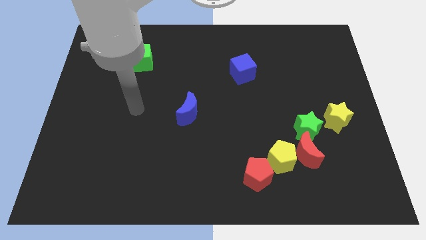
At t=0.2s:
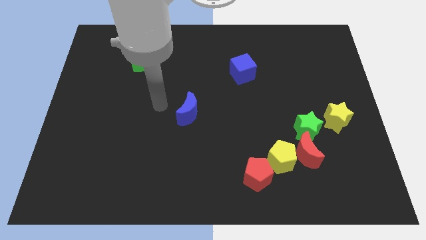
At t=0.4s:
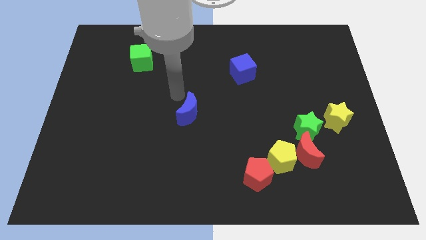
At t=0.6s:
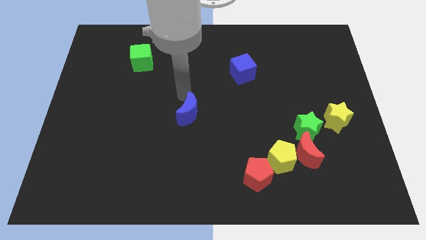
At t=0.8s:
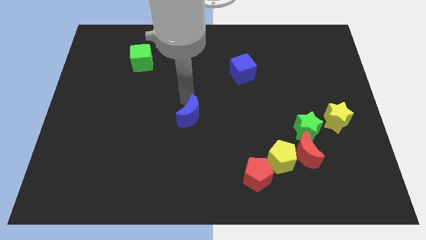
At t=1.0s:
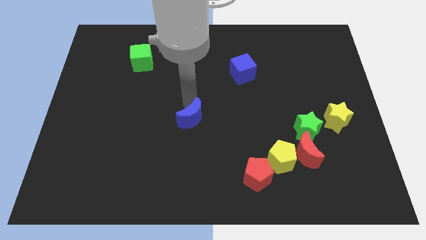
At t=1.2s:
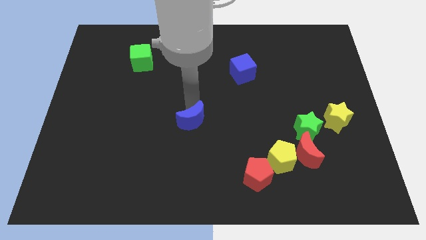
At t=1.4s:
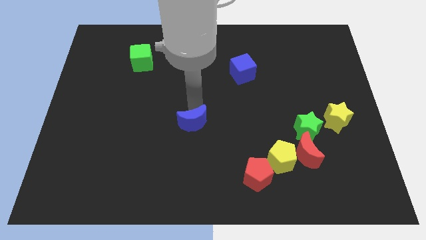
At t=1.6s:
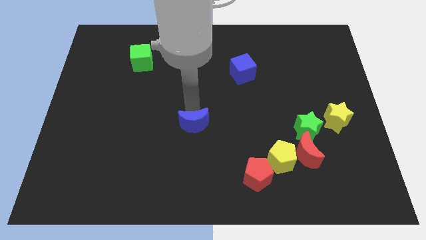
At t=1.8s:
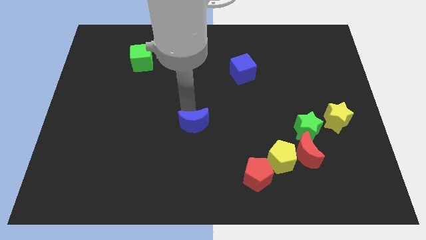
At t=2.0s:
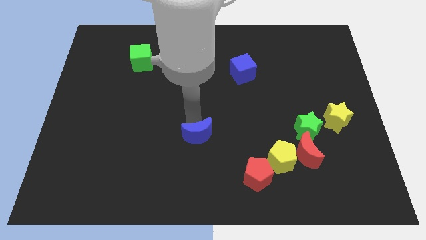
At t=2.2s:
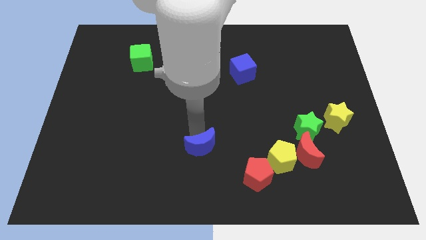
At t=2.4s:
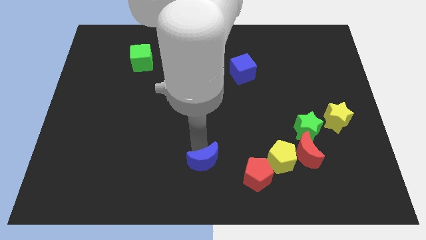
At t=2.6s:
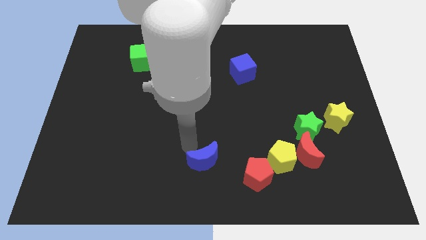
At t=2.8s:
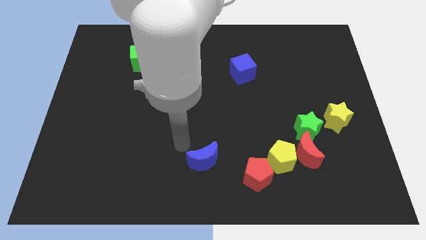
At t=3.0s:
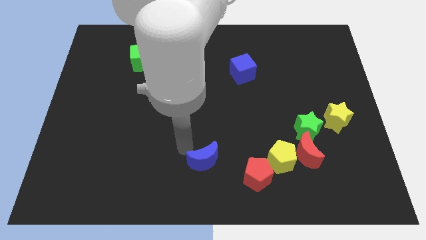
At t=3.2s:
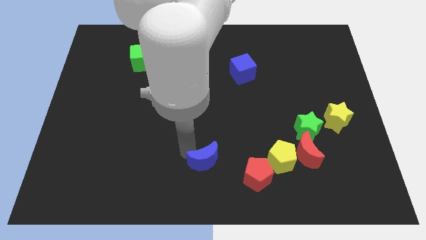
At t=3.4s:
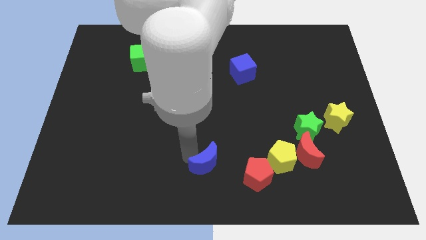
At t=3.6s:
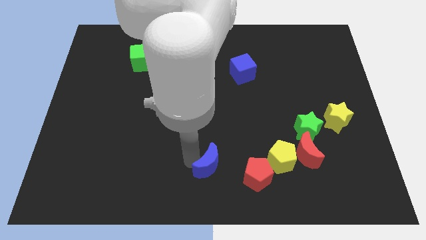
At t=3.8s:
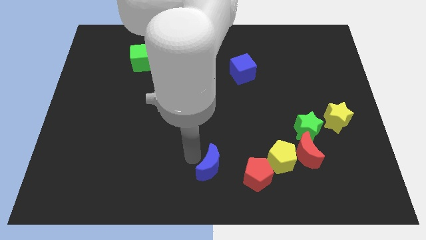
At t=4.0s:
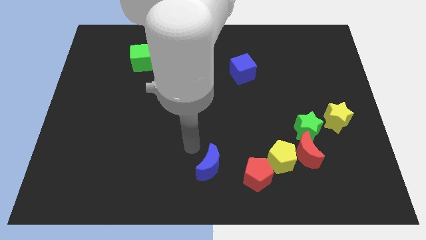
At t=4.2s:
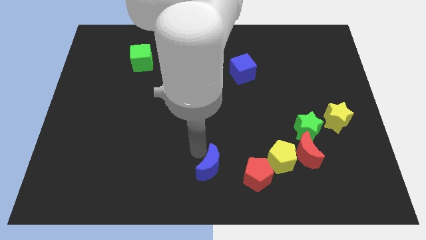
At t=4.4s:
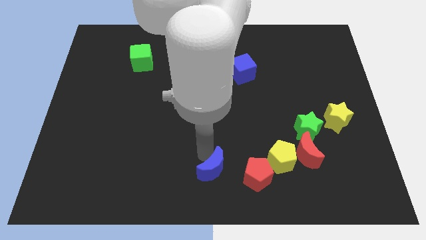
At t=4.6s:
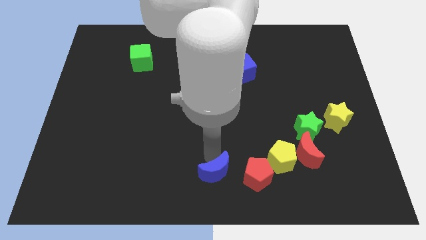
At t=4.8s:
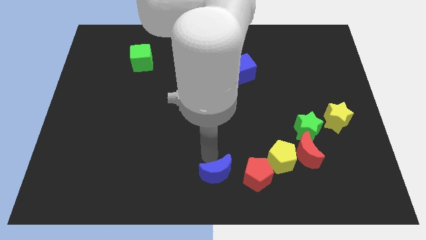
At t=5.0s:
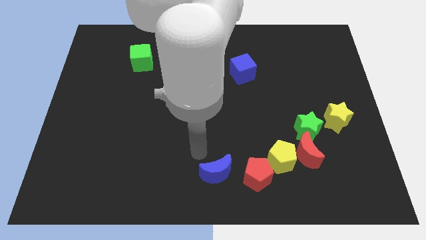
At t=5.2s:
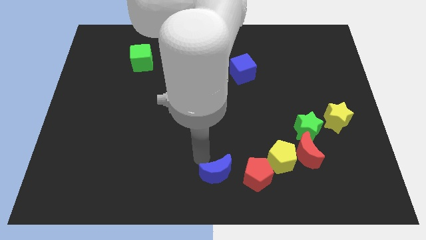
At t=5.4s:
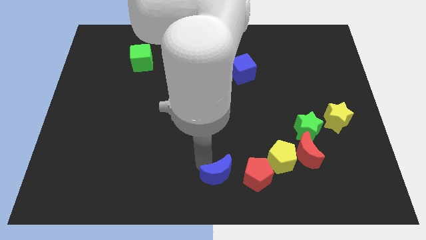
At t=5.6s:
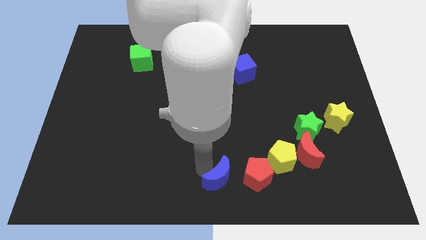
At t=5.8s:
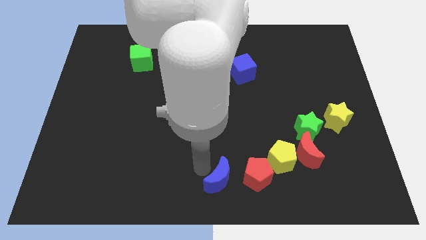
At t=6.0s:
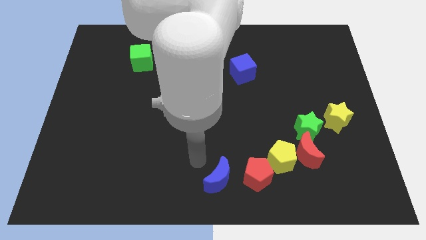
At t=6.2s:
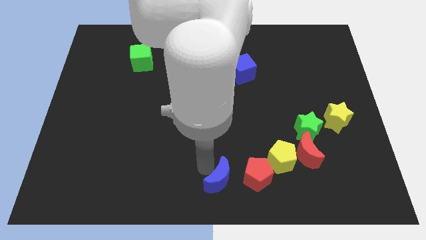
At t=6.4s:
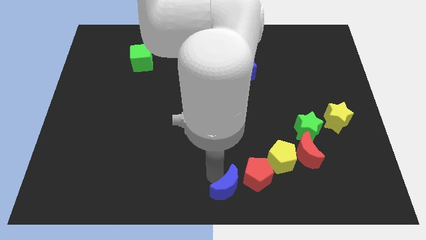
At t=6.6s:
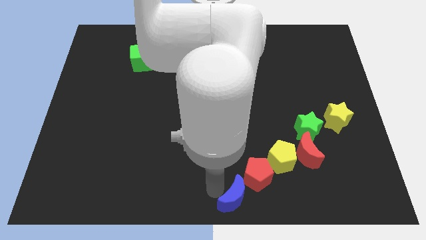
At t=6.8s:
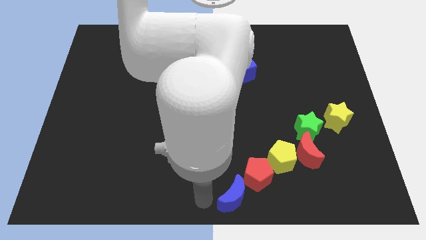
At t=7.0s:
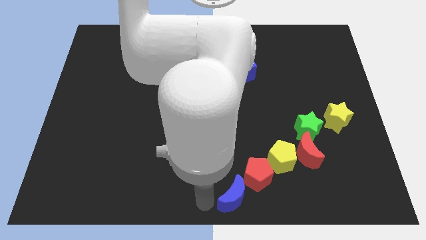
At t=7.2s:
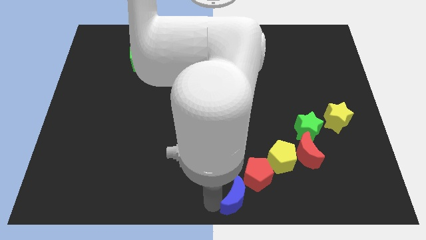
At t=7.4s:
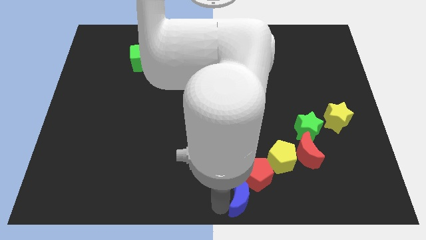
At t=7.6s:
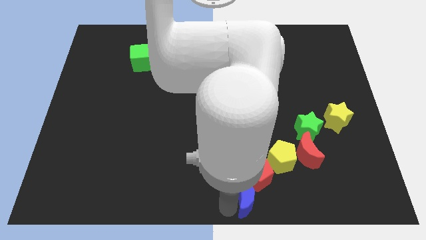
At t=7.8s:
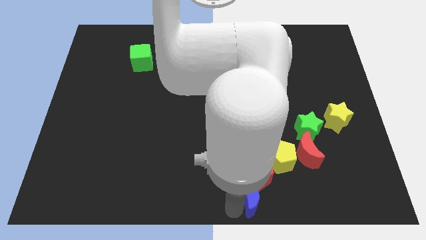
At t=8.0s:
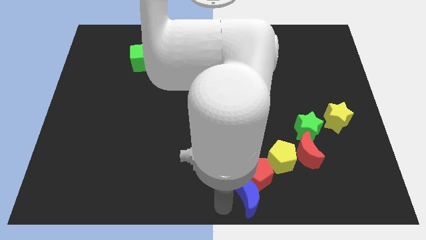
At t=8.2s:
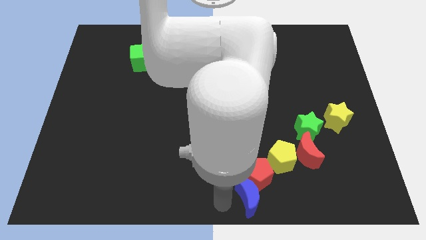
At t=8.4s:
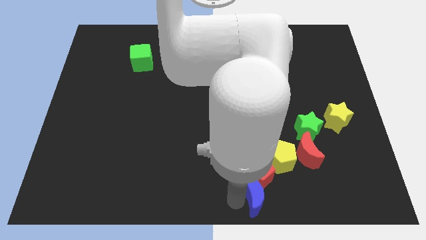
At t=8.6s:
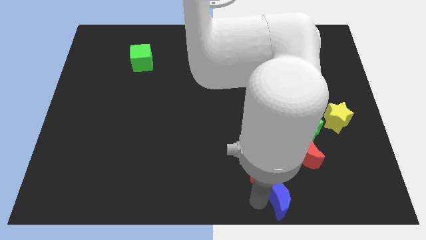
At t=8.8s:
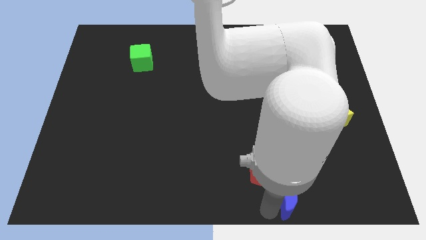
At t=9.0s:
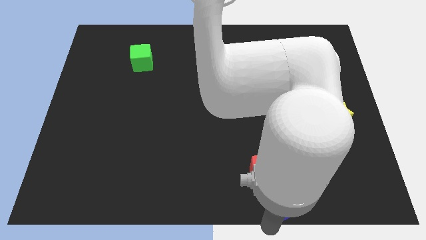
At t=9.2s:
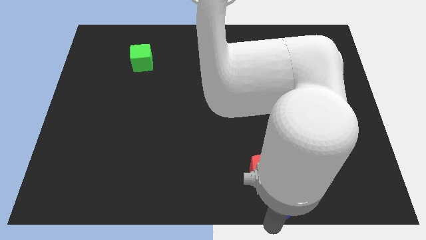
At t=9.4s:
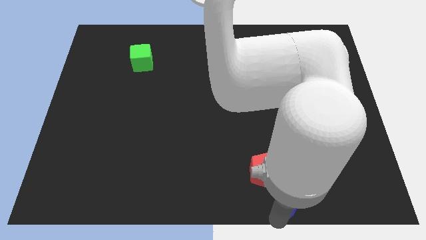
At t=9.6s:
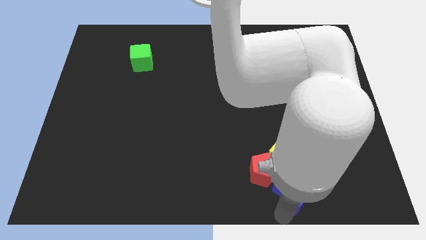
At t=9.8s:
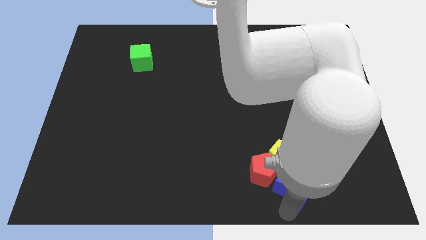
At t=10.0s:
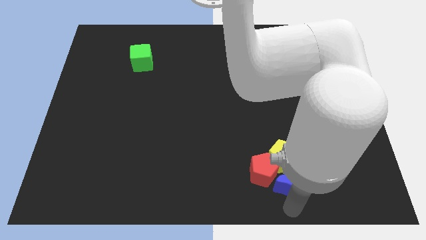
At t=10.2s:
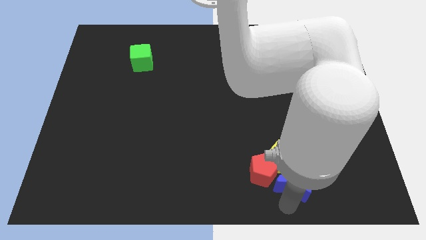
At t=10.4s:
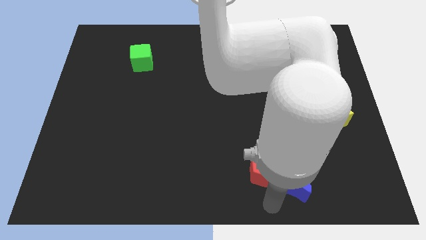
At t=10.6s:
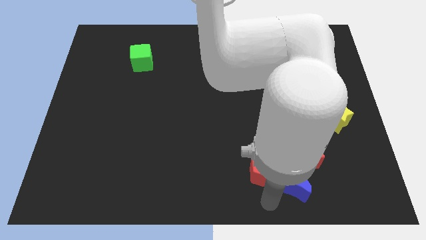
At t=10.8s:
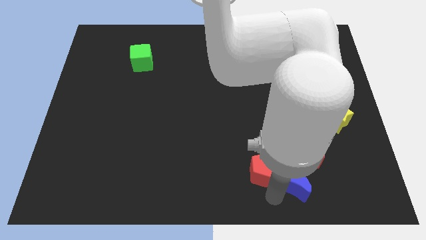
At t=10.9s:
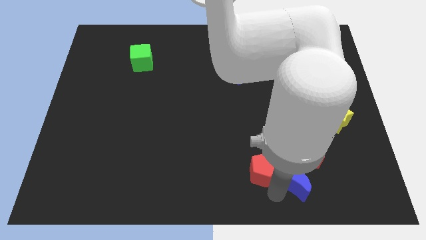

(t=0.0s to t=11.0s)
put the blue moon to the bottom of the green star

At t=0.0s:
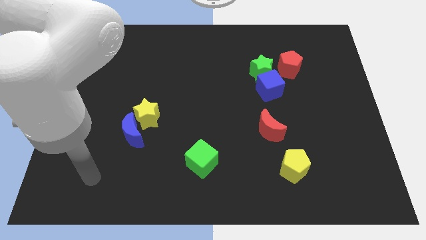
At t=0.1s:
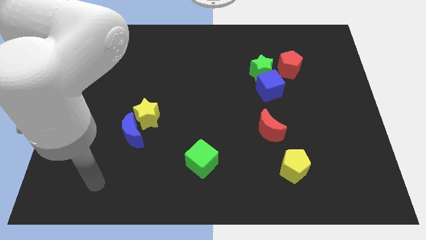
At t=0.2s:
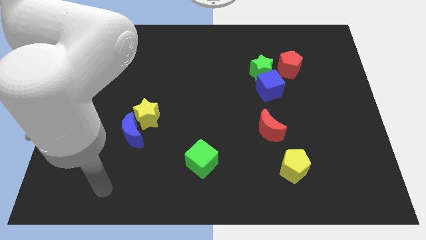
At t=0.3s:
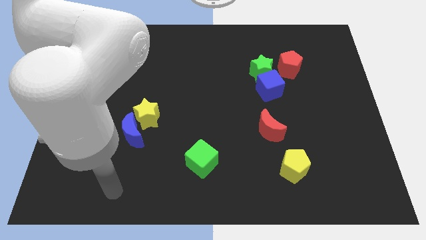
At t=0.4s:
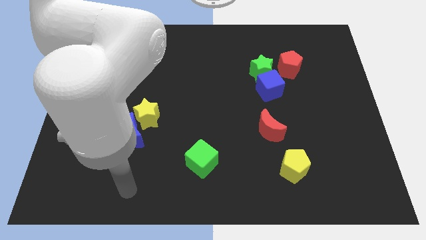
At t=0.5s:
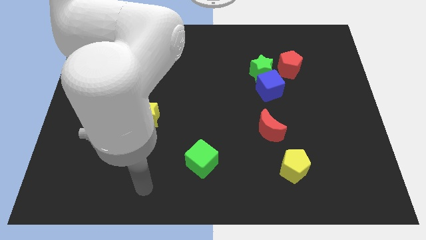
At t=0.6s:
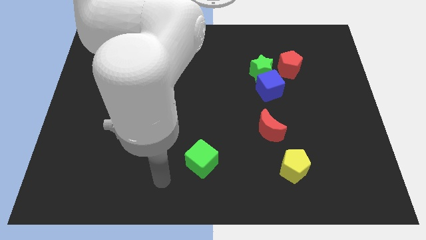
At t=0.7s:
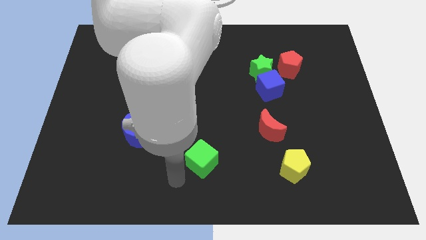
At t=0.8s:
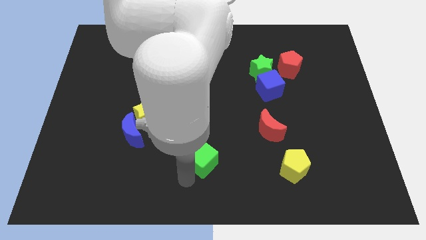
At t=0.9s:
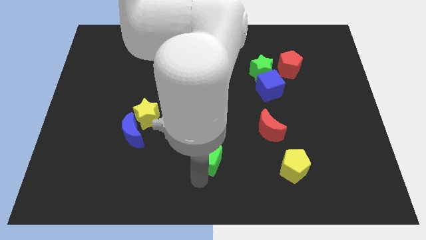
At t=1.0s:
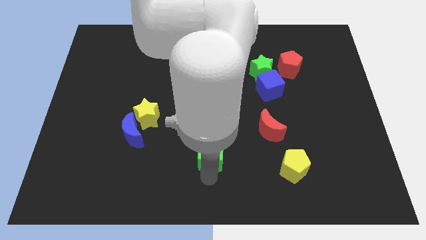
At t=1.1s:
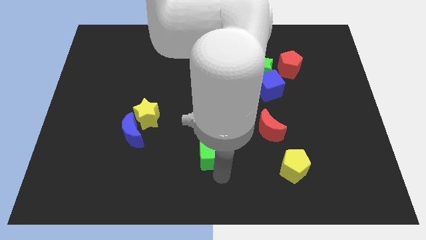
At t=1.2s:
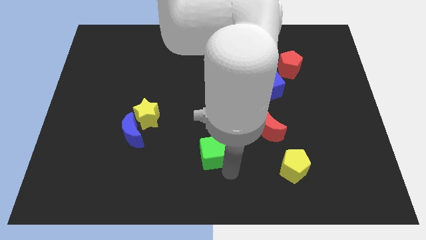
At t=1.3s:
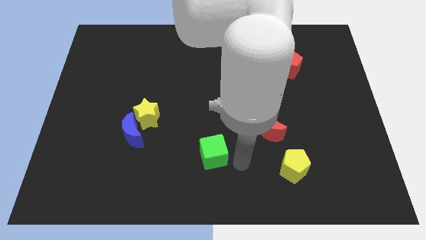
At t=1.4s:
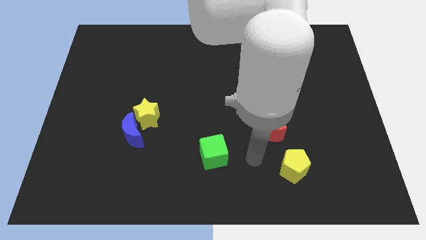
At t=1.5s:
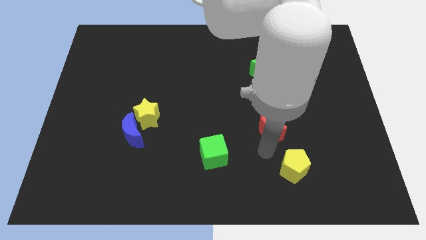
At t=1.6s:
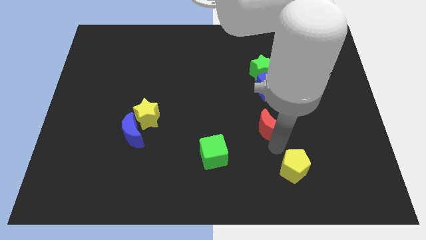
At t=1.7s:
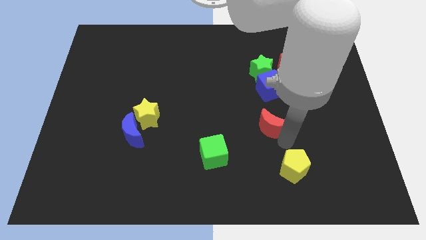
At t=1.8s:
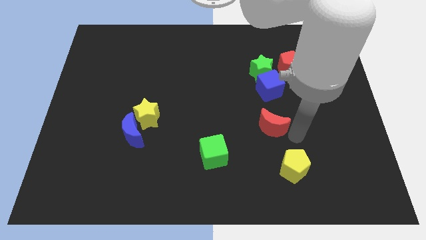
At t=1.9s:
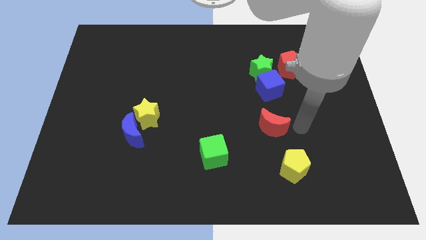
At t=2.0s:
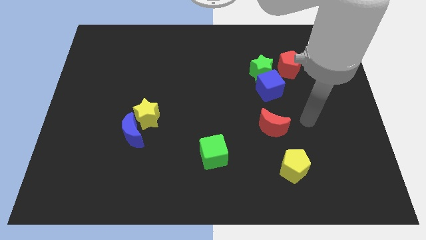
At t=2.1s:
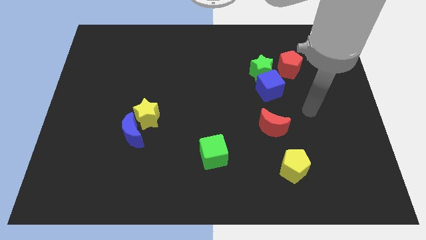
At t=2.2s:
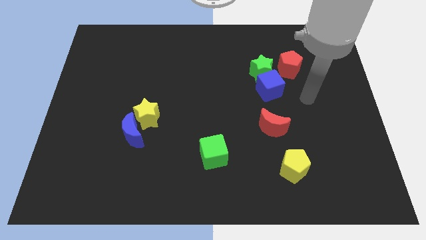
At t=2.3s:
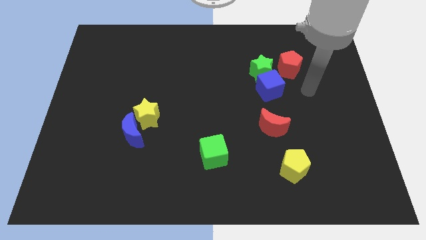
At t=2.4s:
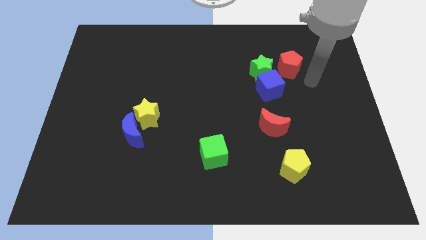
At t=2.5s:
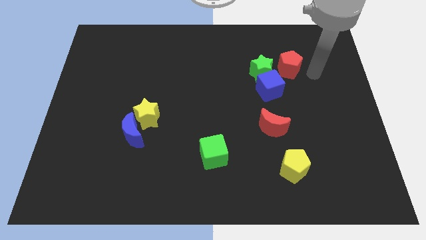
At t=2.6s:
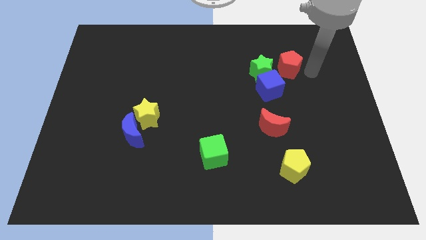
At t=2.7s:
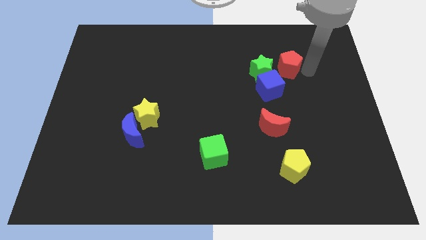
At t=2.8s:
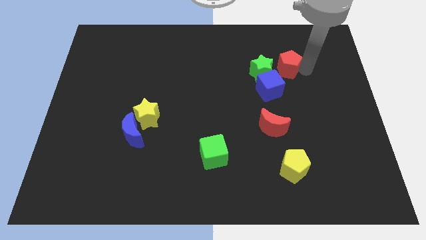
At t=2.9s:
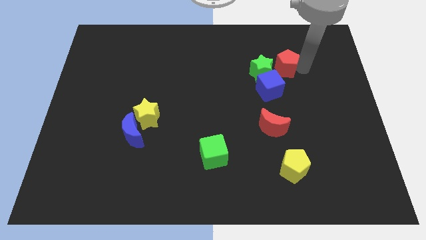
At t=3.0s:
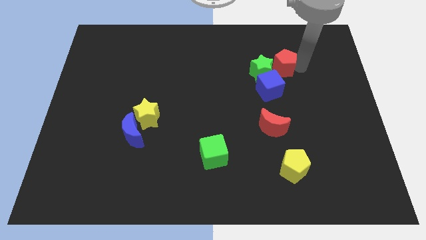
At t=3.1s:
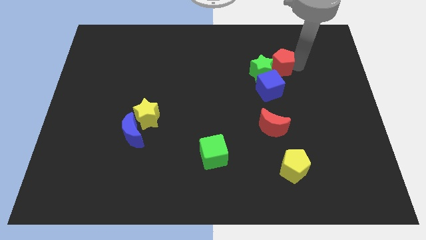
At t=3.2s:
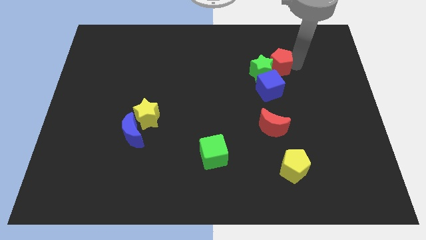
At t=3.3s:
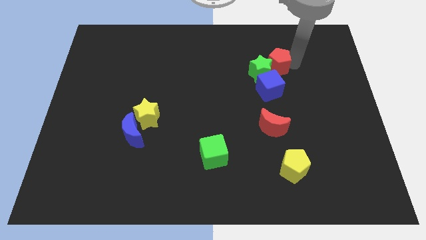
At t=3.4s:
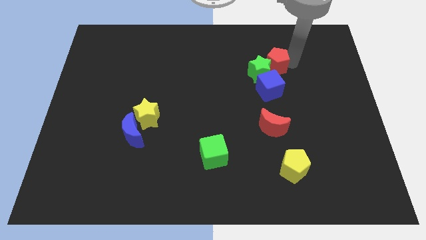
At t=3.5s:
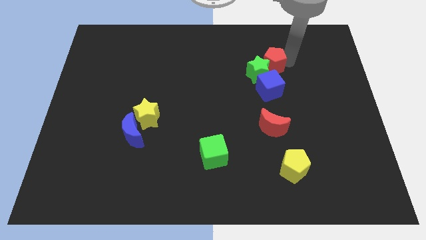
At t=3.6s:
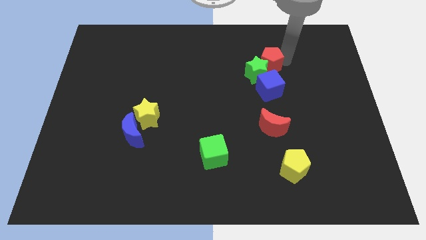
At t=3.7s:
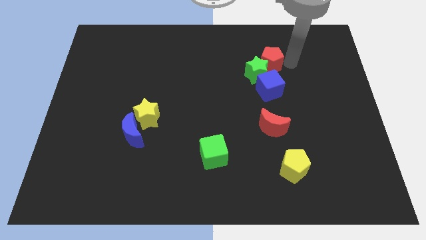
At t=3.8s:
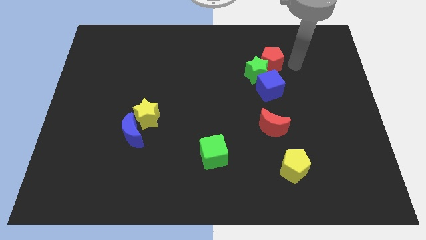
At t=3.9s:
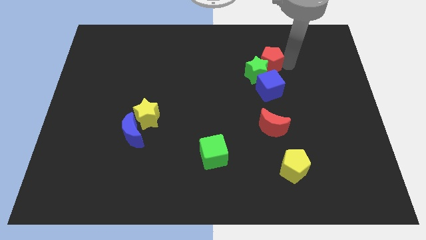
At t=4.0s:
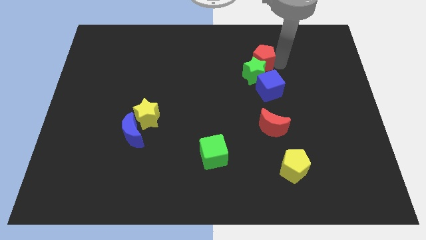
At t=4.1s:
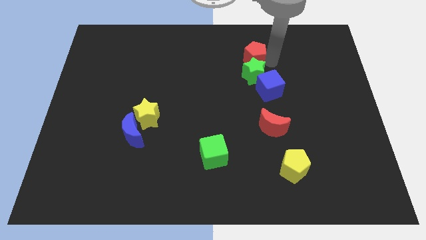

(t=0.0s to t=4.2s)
move the red pentagon to the top left of the green star
